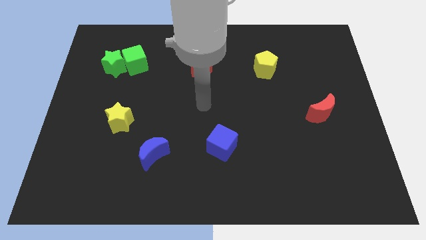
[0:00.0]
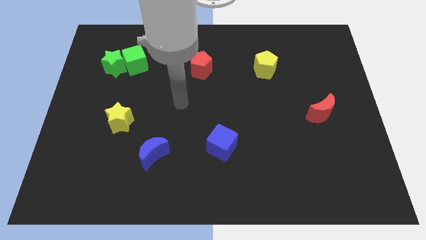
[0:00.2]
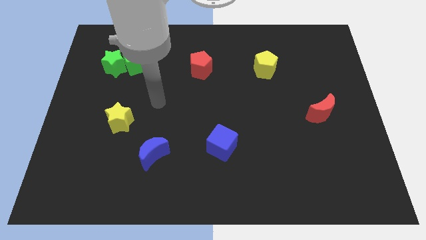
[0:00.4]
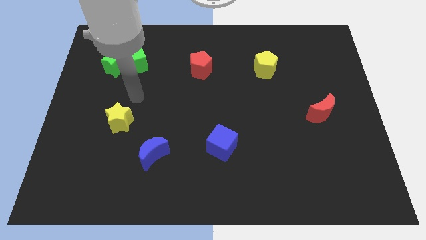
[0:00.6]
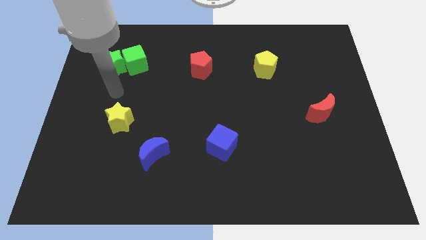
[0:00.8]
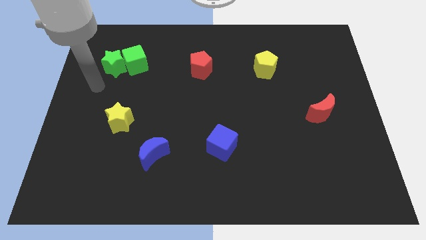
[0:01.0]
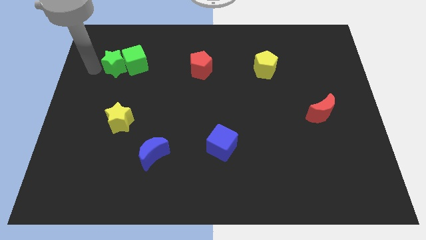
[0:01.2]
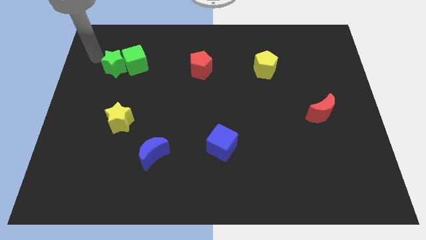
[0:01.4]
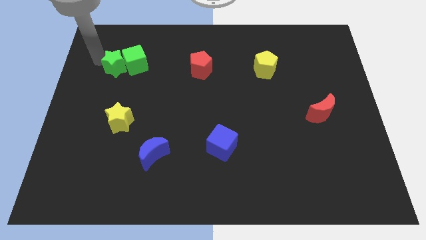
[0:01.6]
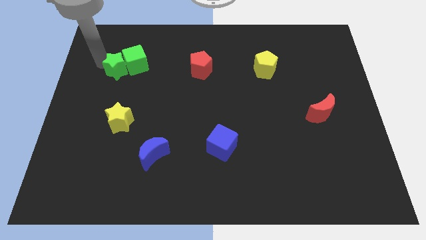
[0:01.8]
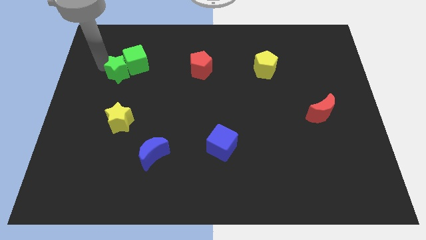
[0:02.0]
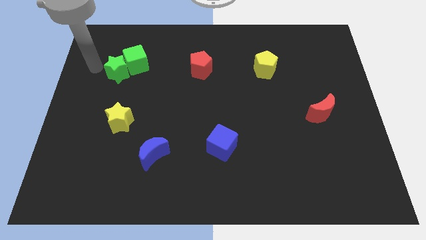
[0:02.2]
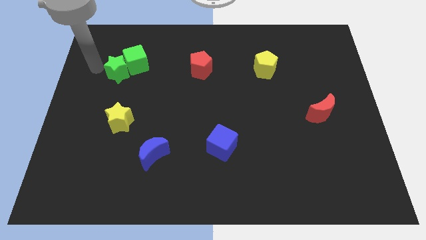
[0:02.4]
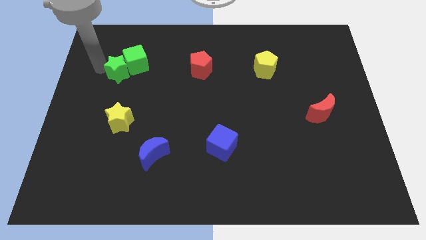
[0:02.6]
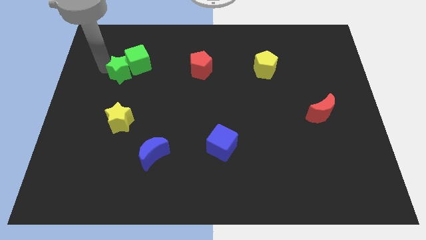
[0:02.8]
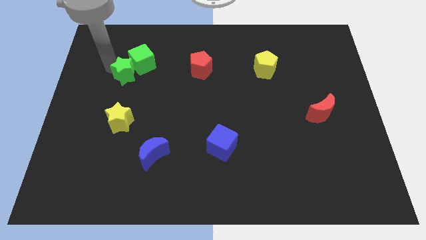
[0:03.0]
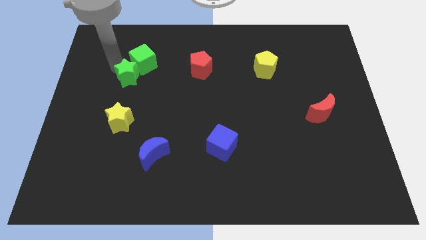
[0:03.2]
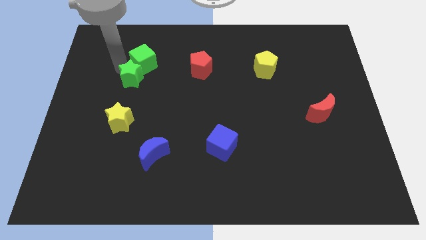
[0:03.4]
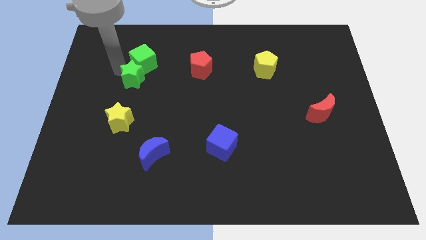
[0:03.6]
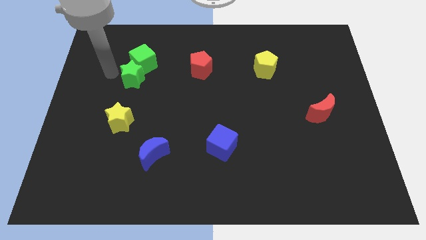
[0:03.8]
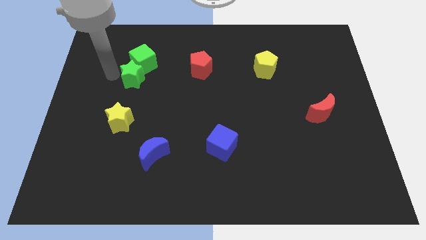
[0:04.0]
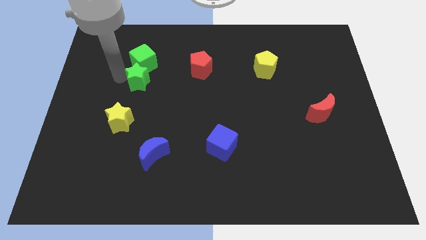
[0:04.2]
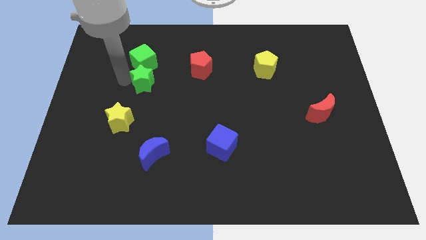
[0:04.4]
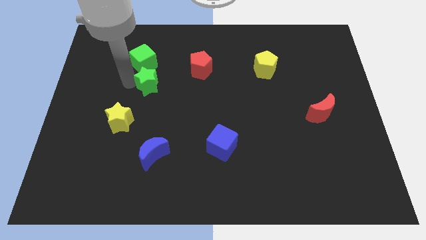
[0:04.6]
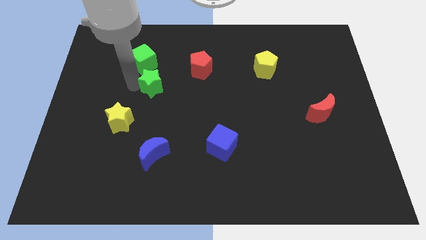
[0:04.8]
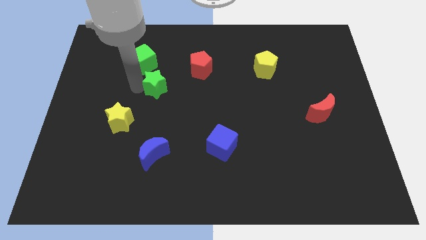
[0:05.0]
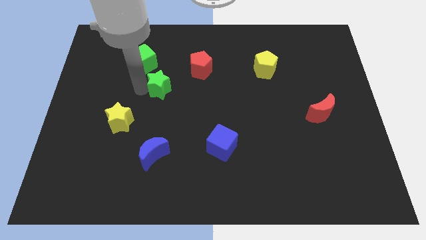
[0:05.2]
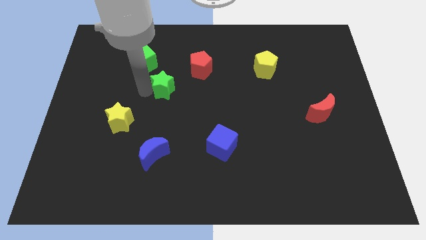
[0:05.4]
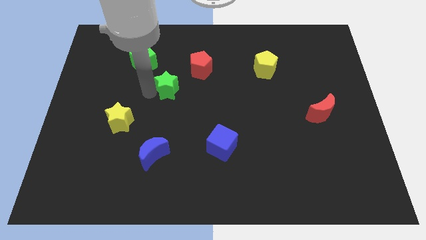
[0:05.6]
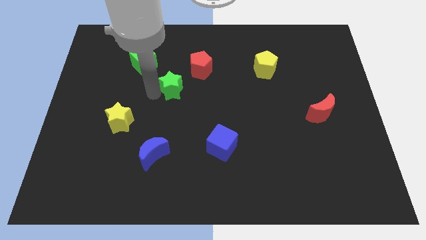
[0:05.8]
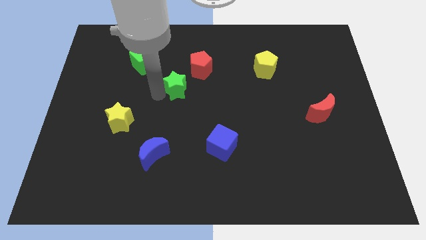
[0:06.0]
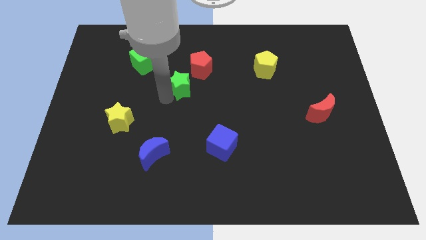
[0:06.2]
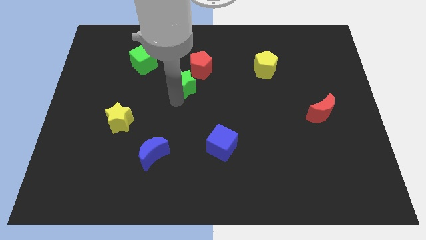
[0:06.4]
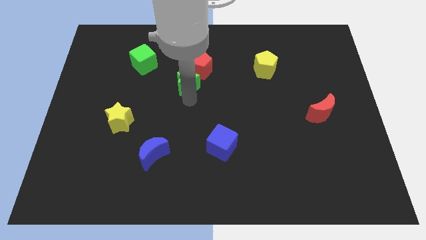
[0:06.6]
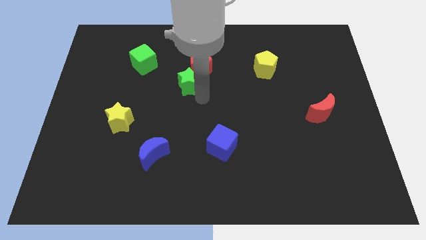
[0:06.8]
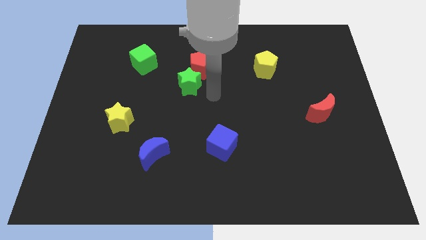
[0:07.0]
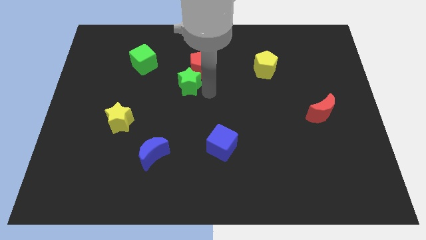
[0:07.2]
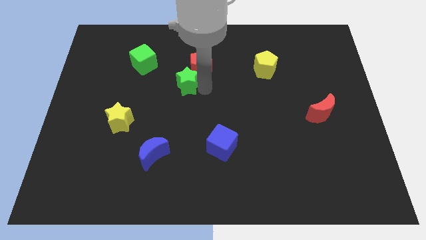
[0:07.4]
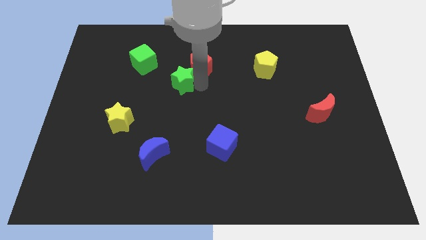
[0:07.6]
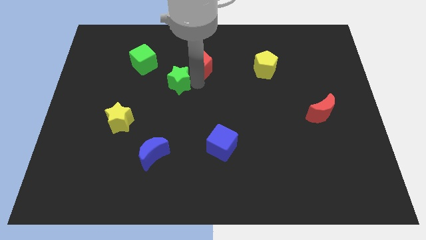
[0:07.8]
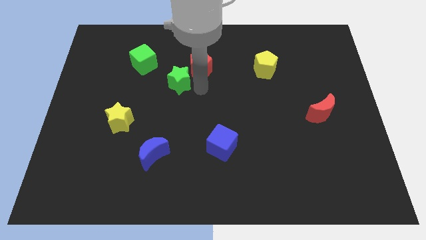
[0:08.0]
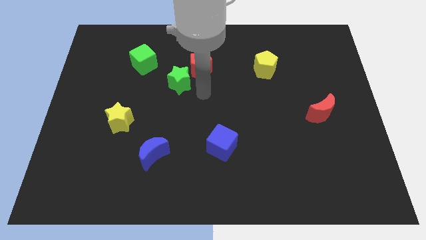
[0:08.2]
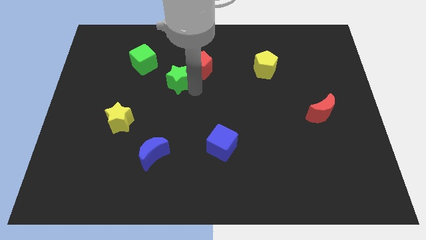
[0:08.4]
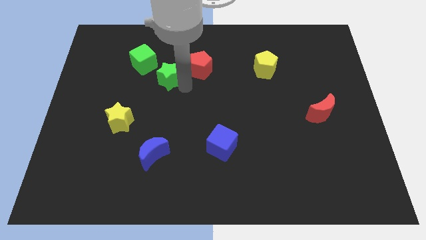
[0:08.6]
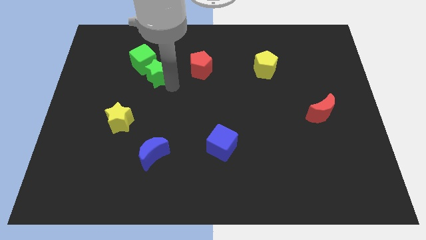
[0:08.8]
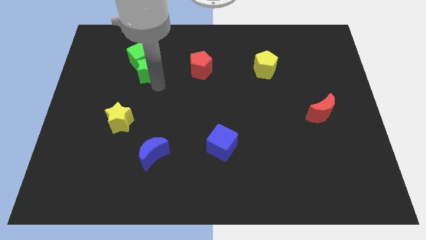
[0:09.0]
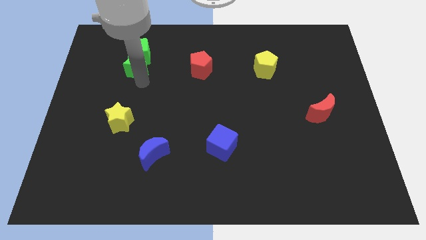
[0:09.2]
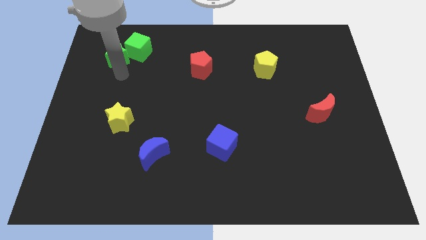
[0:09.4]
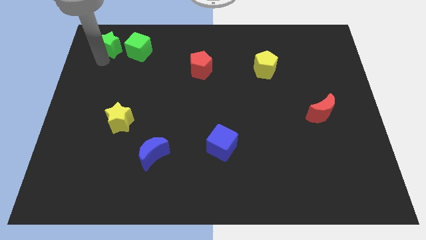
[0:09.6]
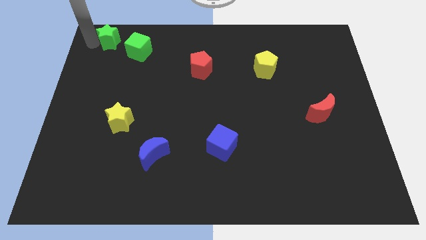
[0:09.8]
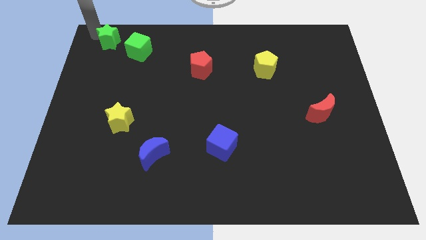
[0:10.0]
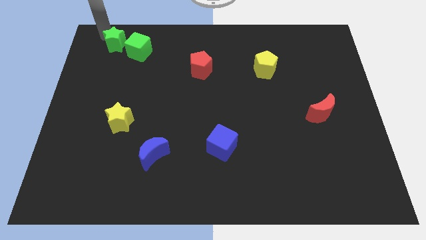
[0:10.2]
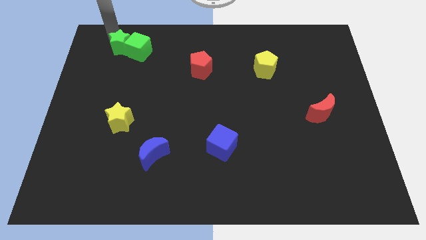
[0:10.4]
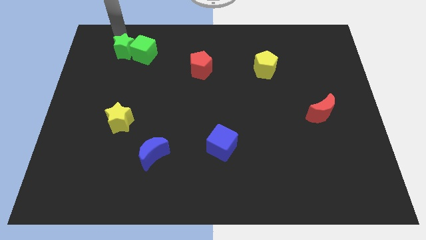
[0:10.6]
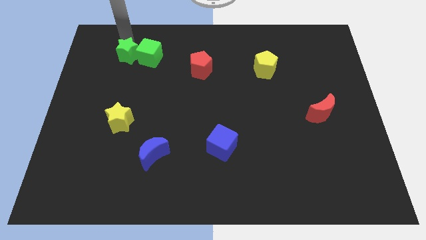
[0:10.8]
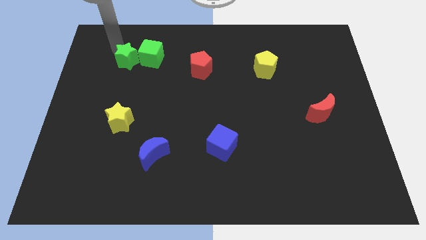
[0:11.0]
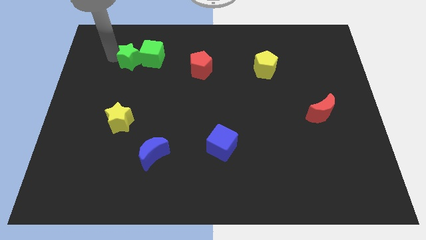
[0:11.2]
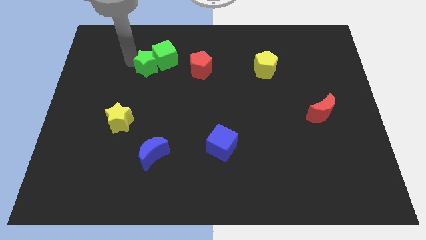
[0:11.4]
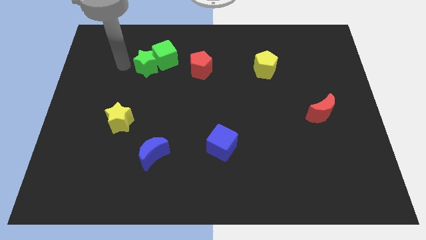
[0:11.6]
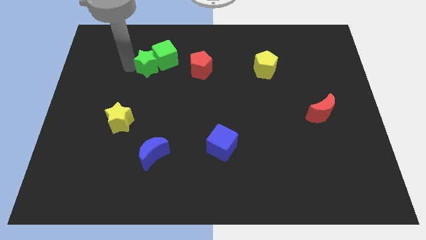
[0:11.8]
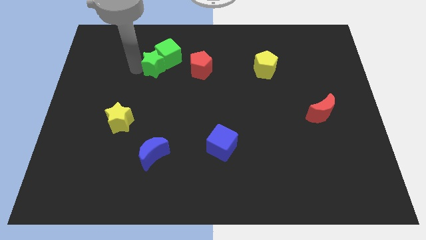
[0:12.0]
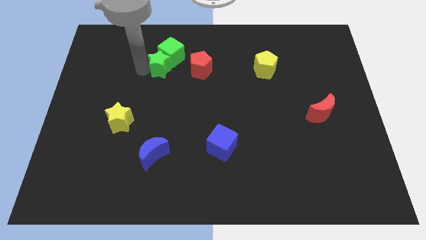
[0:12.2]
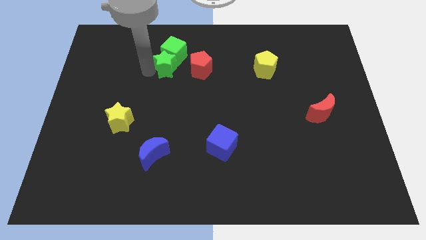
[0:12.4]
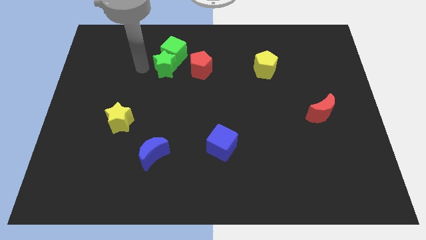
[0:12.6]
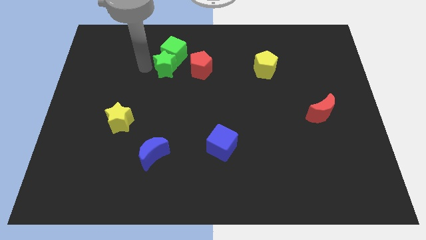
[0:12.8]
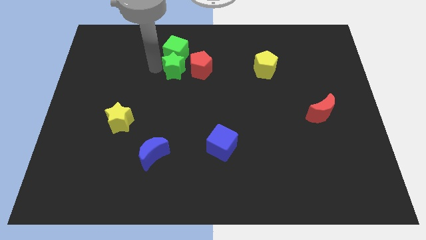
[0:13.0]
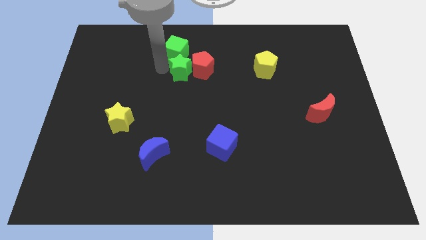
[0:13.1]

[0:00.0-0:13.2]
put the green star to the red pentagon

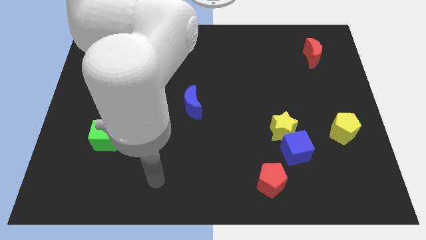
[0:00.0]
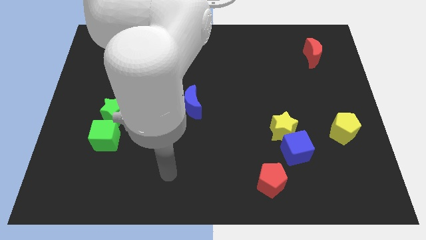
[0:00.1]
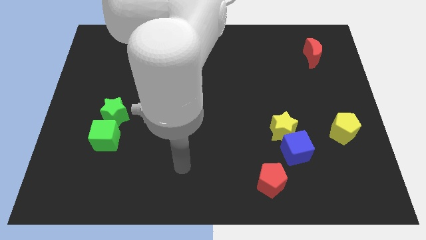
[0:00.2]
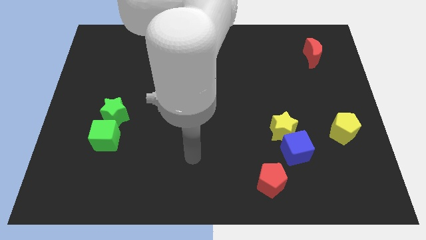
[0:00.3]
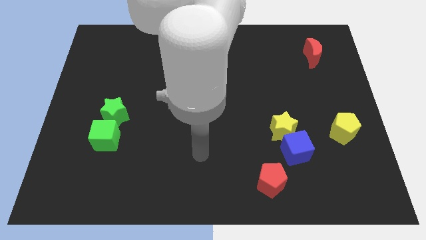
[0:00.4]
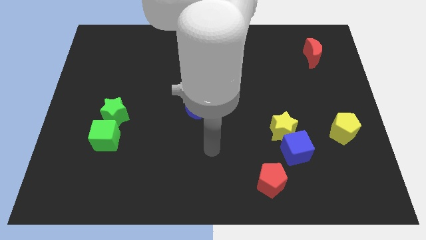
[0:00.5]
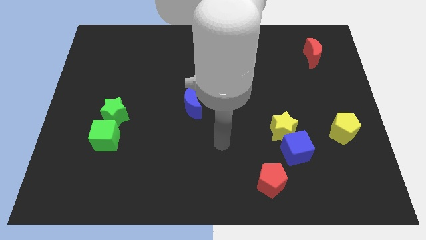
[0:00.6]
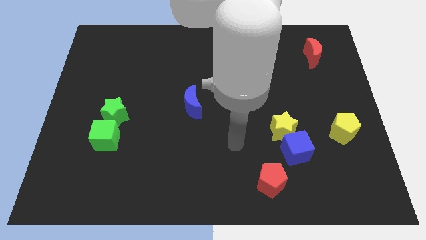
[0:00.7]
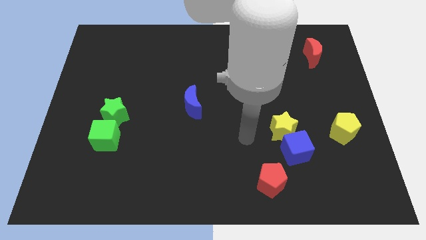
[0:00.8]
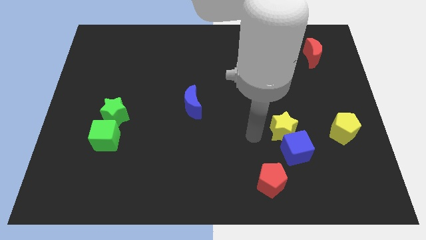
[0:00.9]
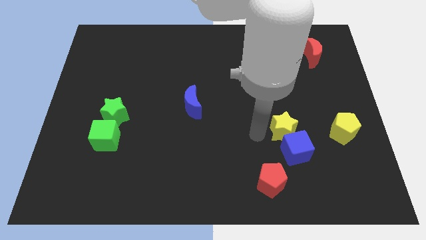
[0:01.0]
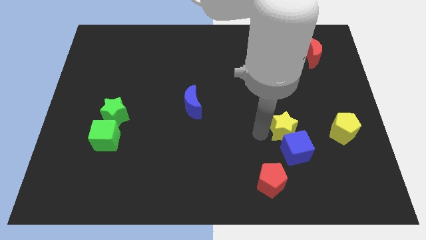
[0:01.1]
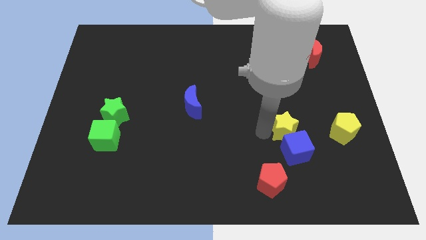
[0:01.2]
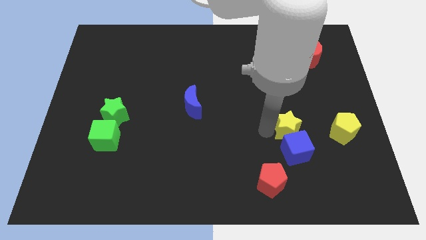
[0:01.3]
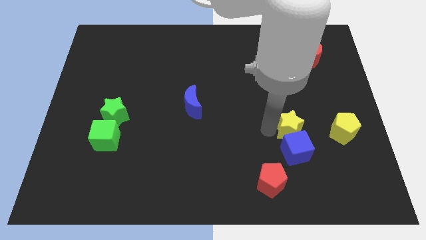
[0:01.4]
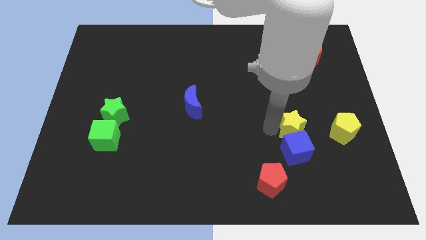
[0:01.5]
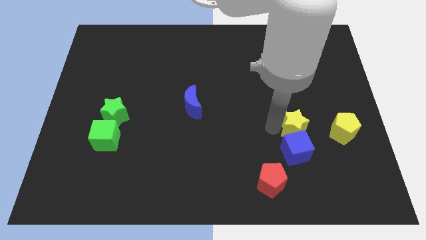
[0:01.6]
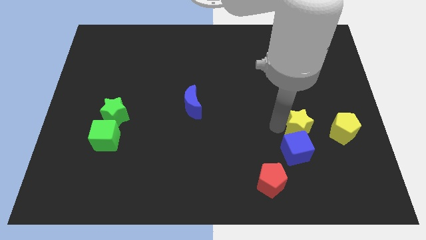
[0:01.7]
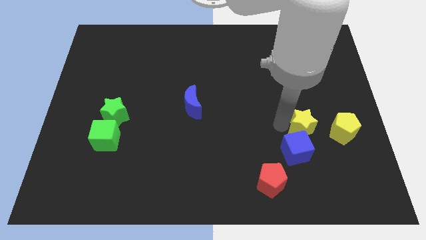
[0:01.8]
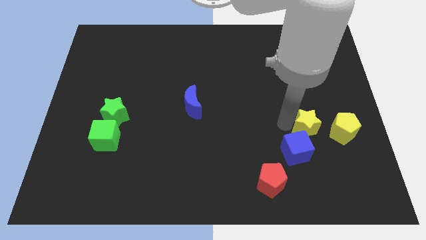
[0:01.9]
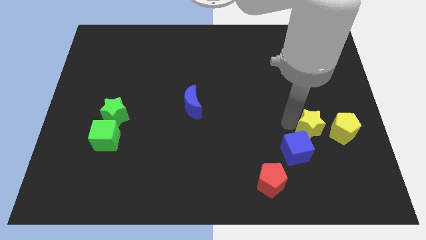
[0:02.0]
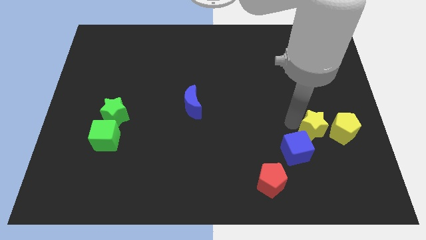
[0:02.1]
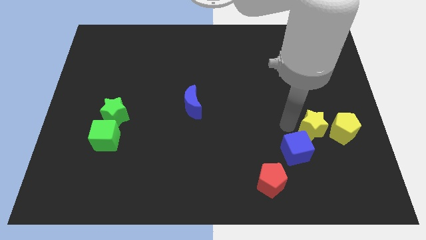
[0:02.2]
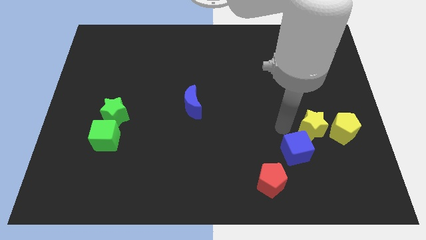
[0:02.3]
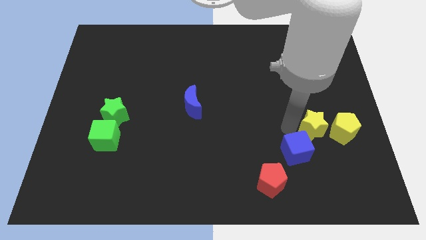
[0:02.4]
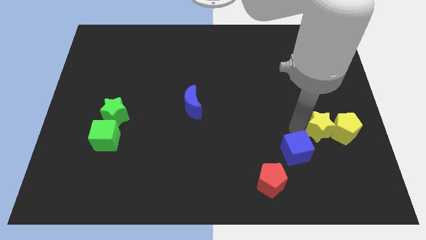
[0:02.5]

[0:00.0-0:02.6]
slide the yellow star towards the yellow pentagon
